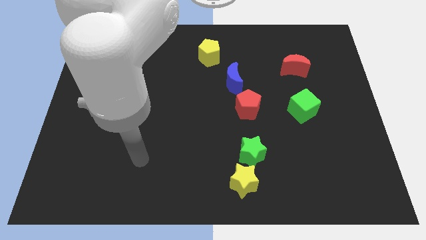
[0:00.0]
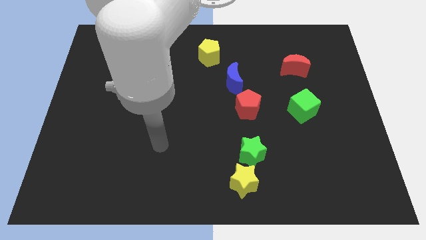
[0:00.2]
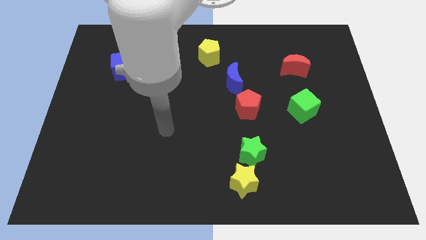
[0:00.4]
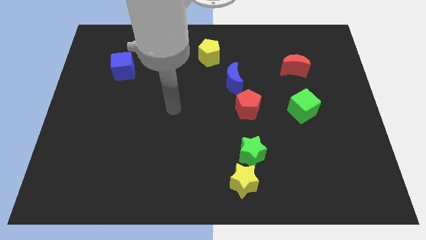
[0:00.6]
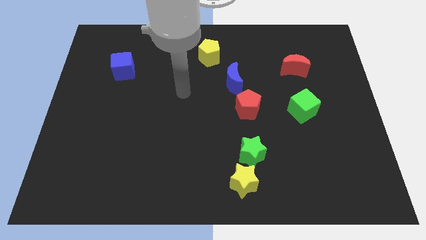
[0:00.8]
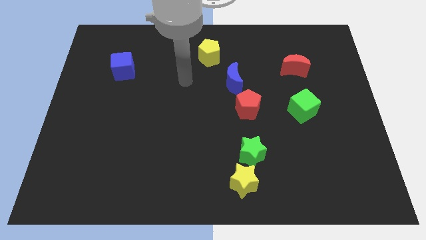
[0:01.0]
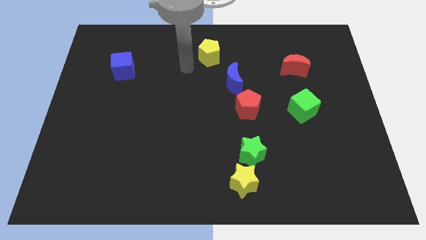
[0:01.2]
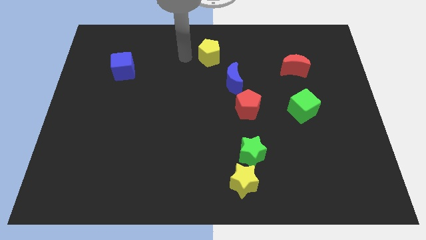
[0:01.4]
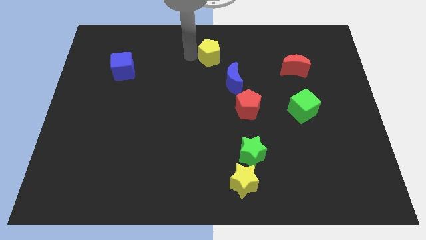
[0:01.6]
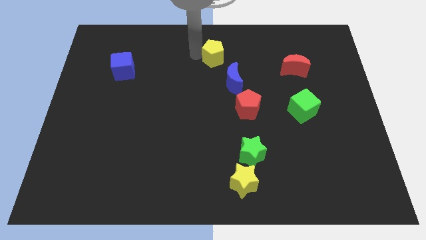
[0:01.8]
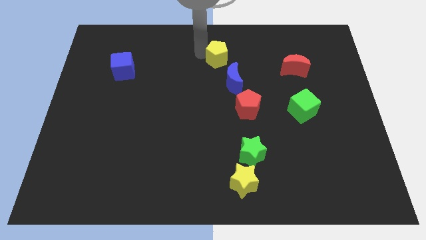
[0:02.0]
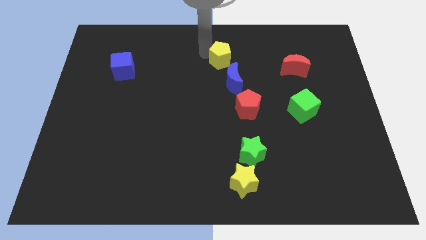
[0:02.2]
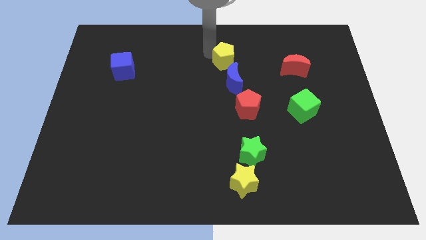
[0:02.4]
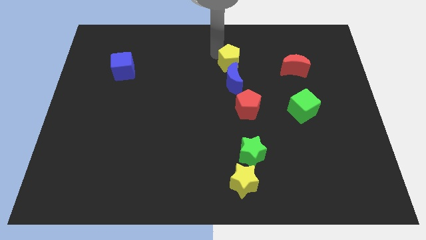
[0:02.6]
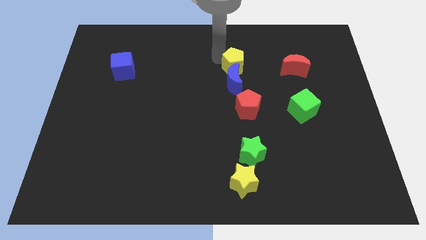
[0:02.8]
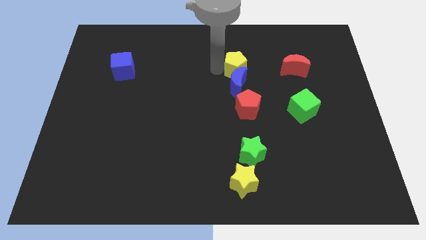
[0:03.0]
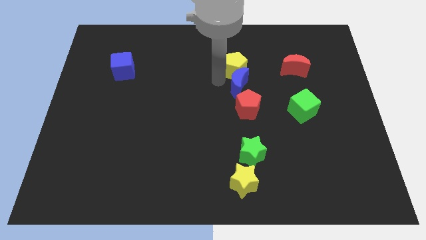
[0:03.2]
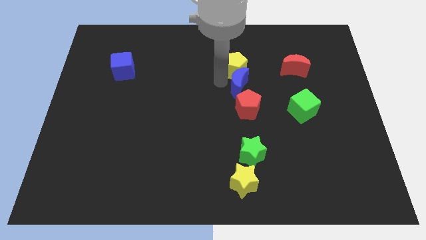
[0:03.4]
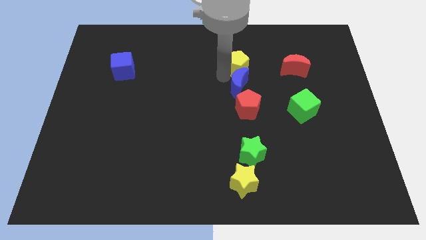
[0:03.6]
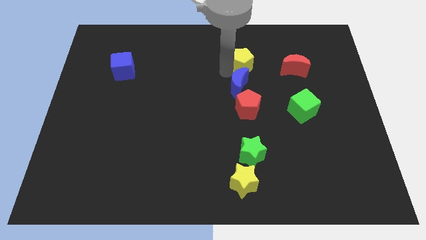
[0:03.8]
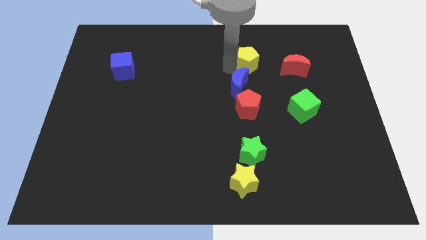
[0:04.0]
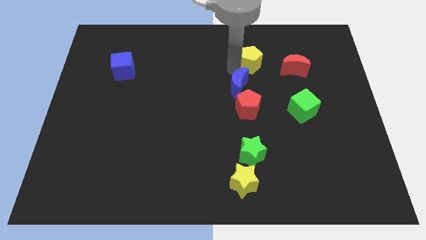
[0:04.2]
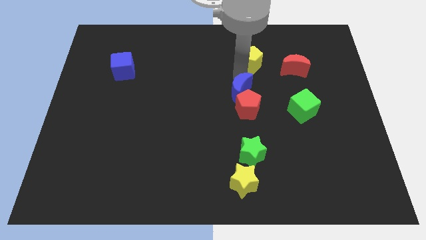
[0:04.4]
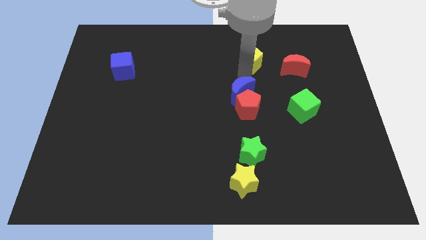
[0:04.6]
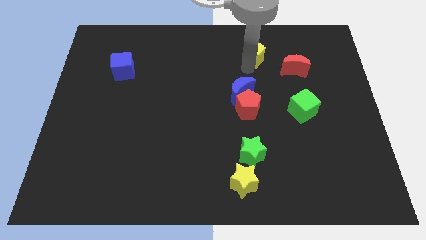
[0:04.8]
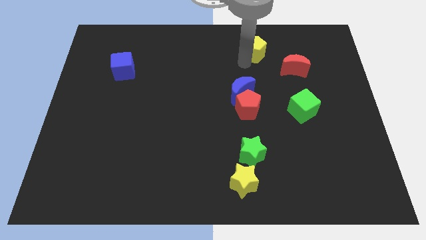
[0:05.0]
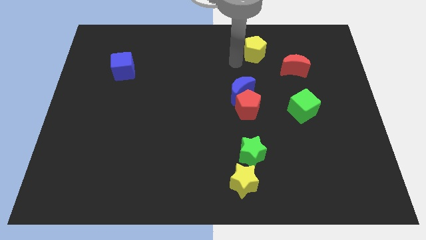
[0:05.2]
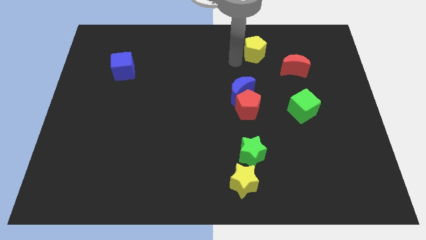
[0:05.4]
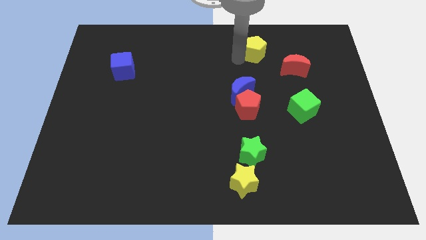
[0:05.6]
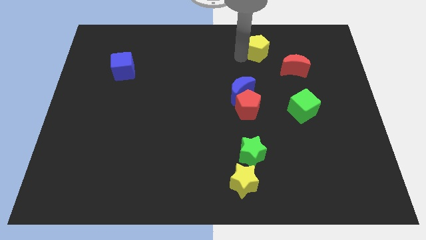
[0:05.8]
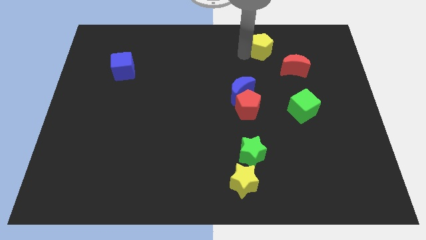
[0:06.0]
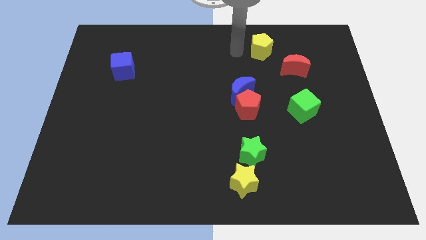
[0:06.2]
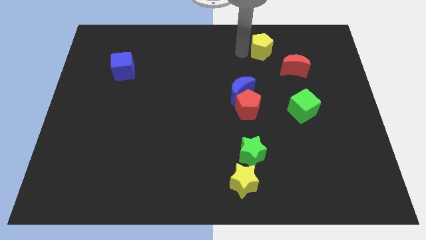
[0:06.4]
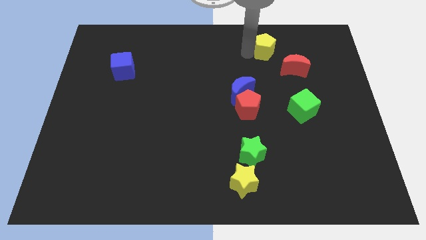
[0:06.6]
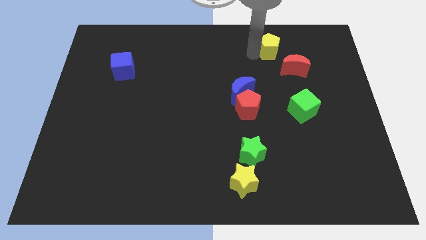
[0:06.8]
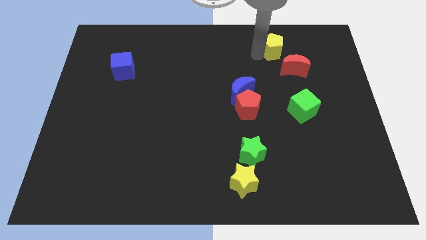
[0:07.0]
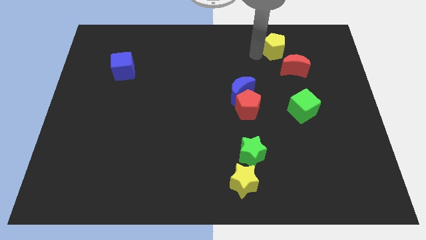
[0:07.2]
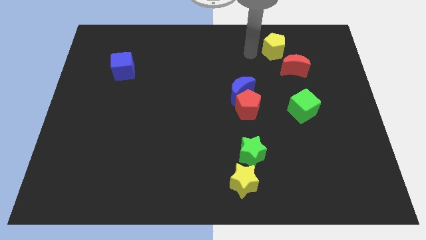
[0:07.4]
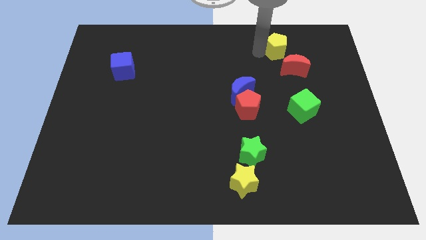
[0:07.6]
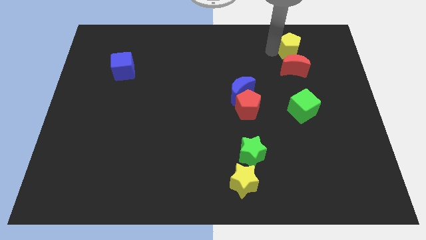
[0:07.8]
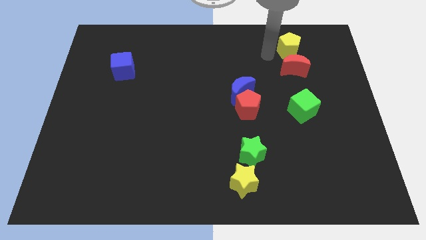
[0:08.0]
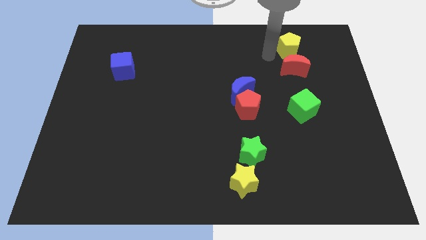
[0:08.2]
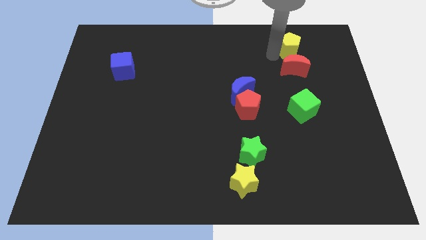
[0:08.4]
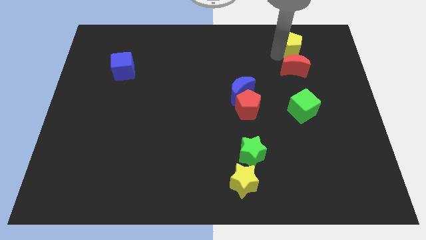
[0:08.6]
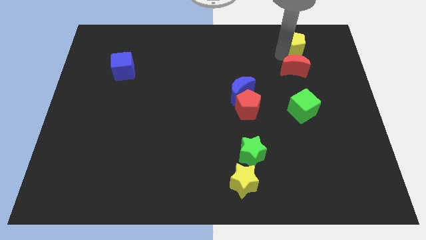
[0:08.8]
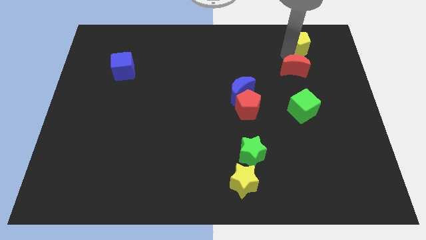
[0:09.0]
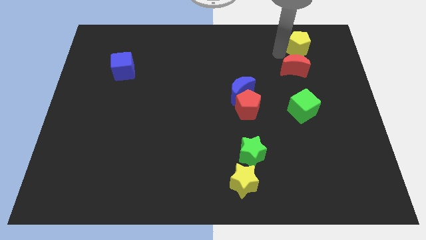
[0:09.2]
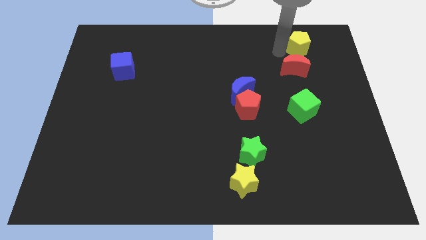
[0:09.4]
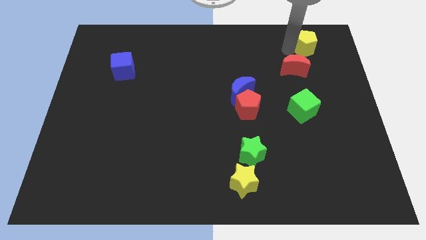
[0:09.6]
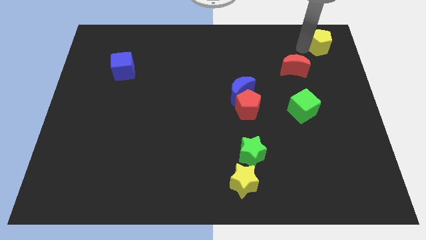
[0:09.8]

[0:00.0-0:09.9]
push the yellow pentagon to the upper right corner

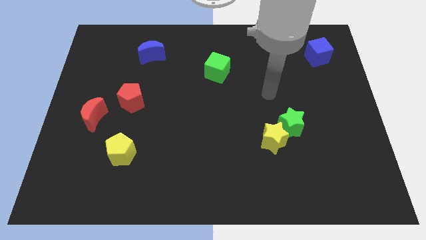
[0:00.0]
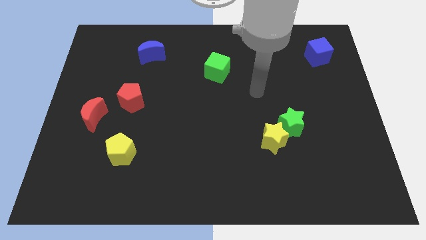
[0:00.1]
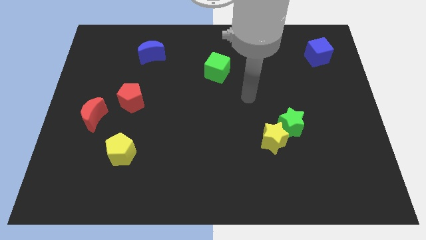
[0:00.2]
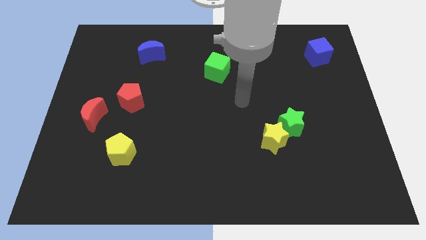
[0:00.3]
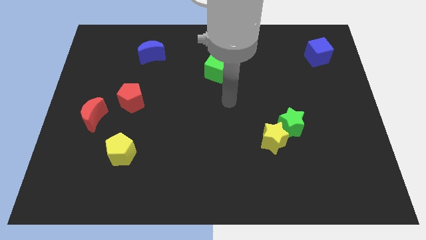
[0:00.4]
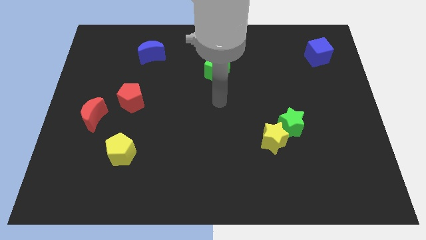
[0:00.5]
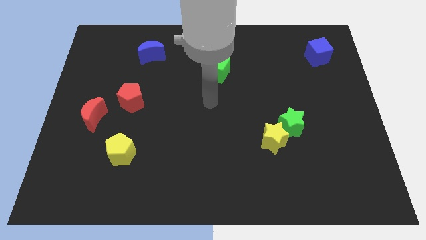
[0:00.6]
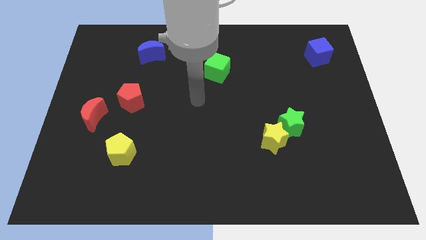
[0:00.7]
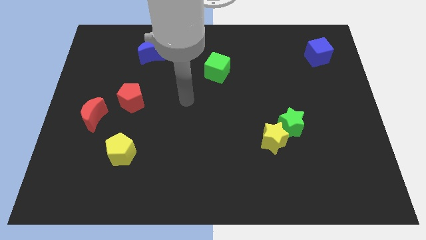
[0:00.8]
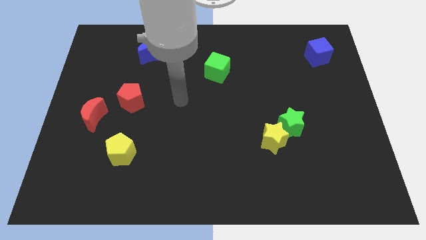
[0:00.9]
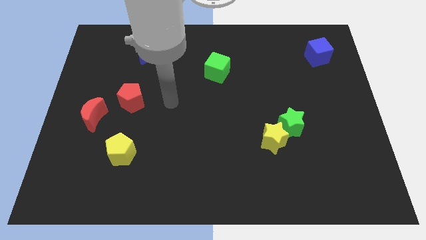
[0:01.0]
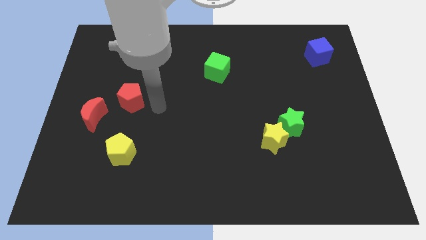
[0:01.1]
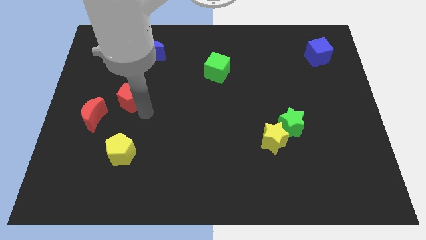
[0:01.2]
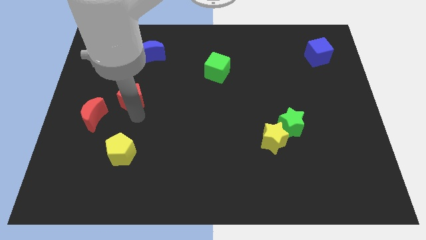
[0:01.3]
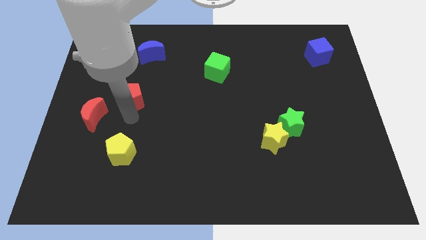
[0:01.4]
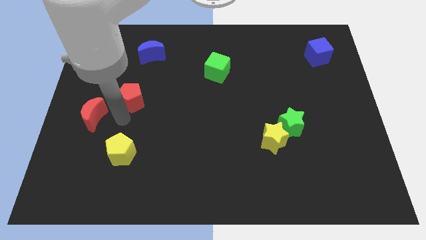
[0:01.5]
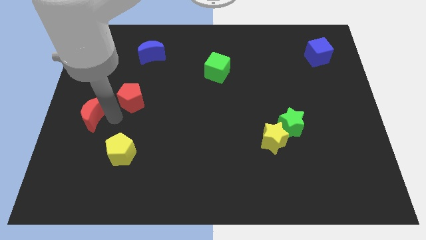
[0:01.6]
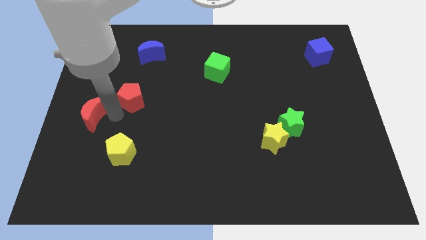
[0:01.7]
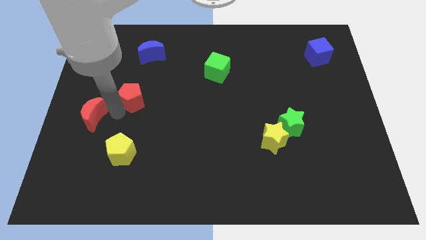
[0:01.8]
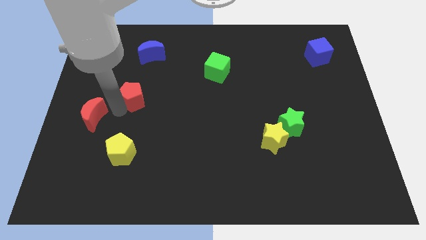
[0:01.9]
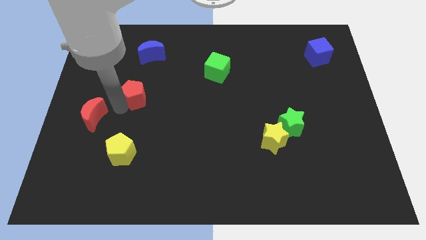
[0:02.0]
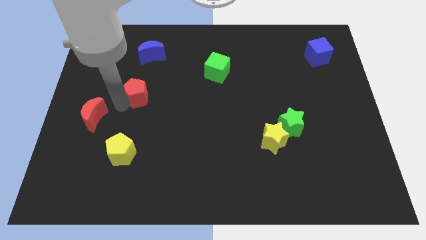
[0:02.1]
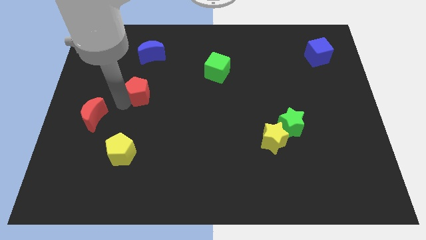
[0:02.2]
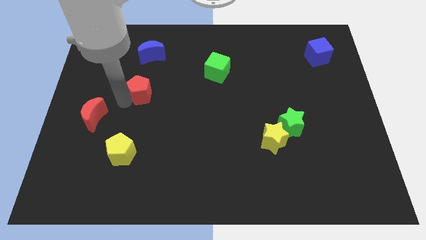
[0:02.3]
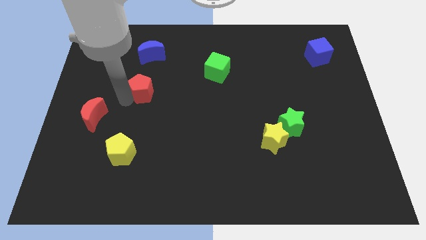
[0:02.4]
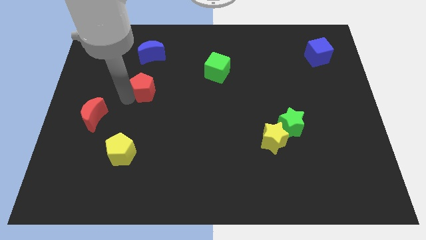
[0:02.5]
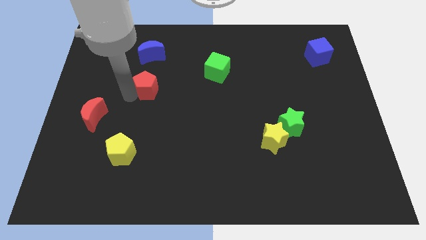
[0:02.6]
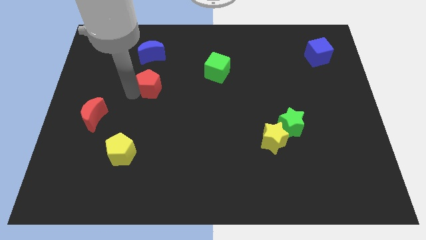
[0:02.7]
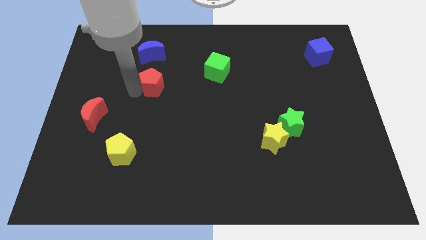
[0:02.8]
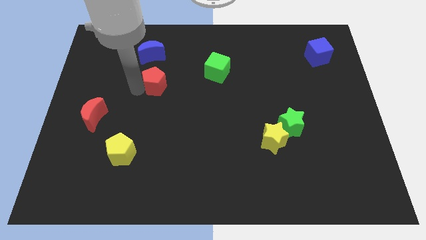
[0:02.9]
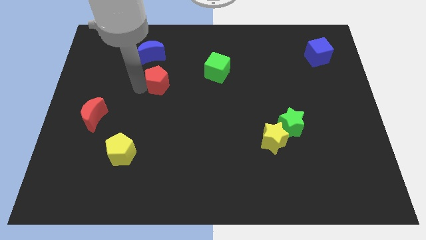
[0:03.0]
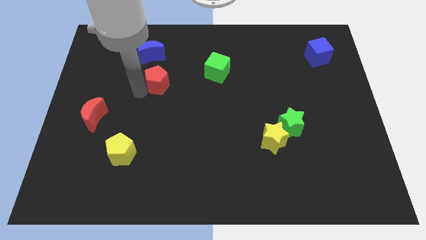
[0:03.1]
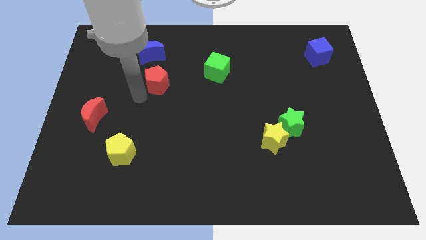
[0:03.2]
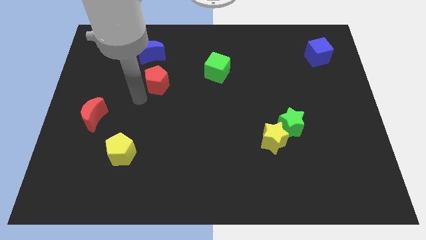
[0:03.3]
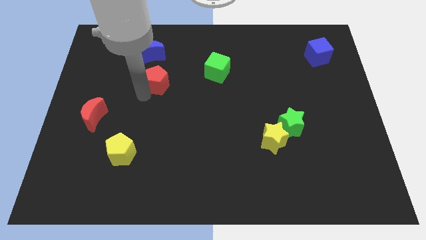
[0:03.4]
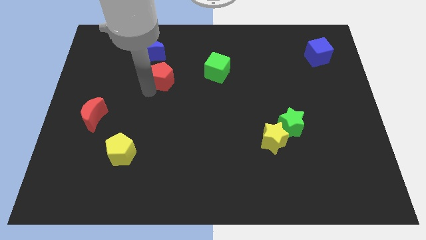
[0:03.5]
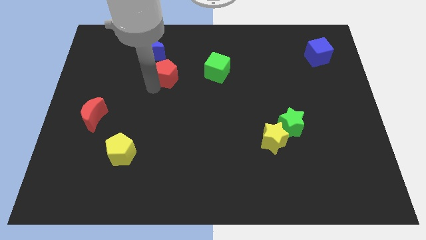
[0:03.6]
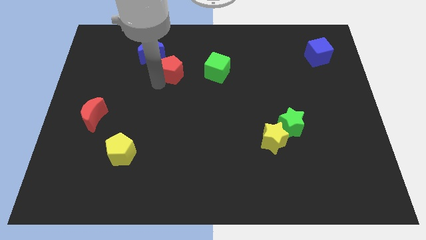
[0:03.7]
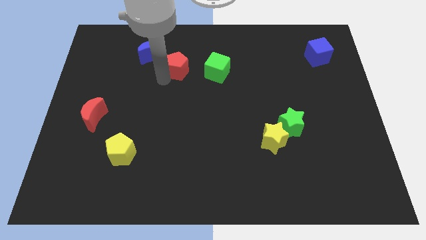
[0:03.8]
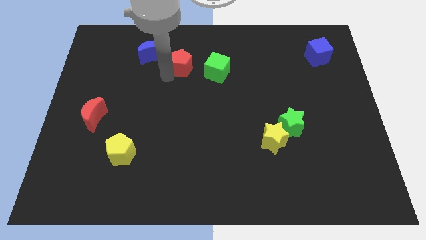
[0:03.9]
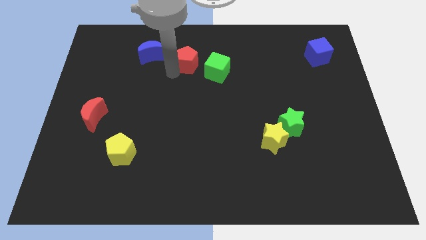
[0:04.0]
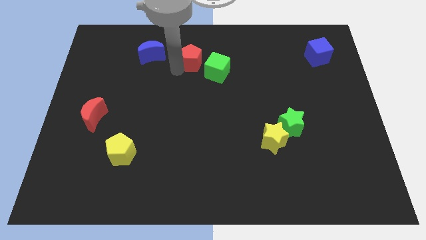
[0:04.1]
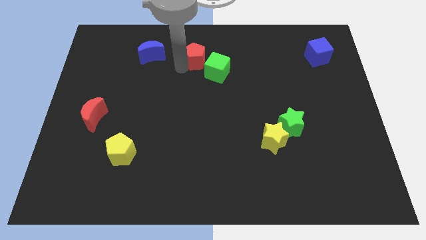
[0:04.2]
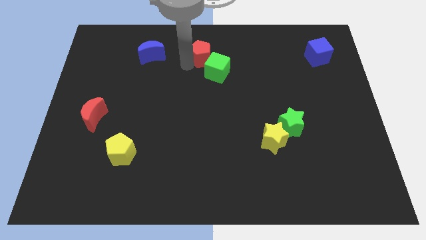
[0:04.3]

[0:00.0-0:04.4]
put the red pentagon to the towards your base
